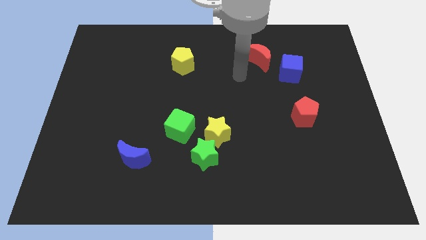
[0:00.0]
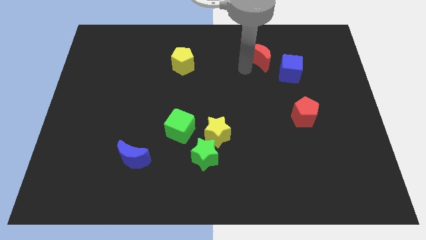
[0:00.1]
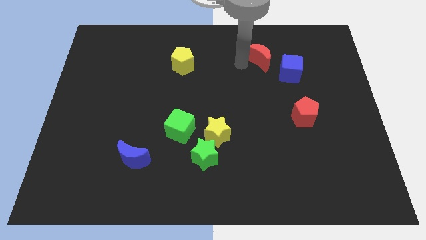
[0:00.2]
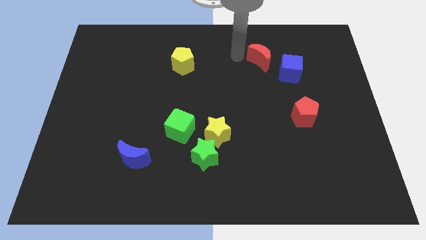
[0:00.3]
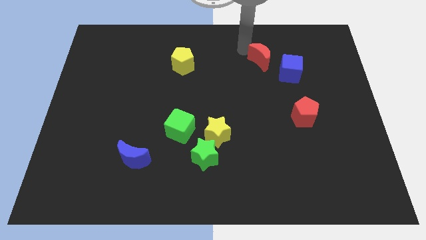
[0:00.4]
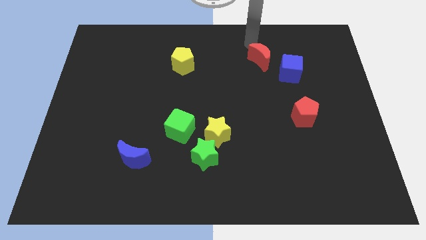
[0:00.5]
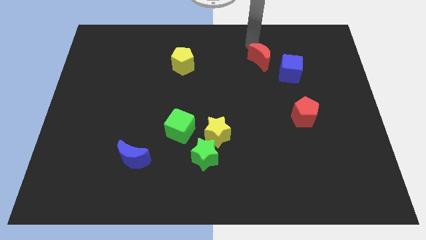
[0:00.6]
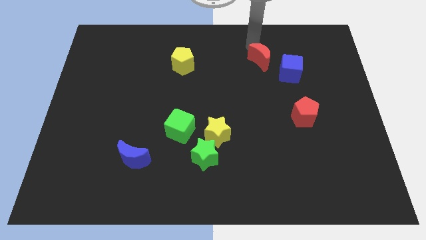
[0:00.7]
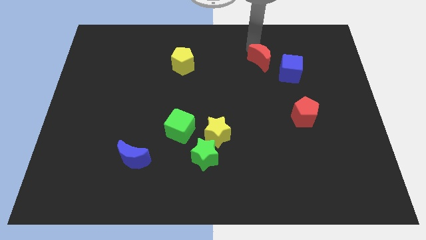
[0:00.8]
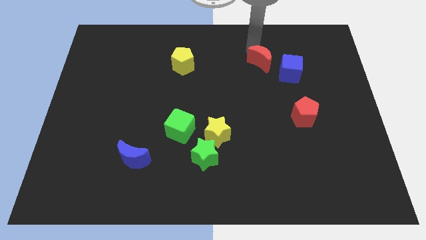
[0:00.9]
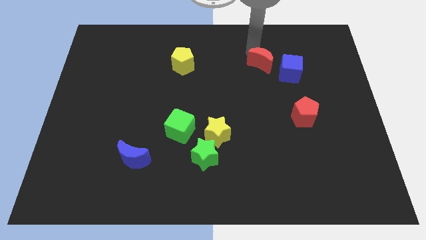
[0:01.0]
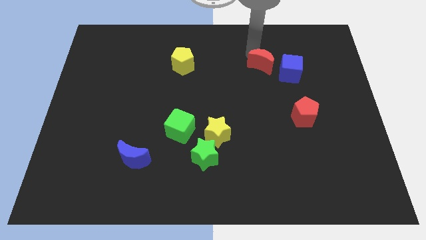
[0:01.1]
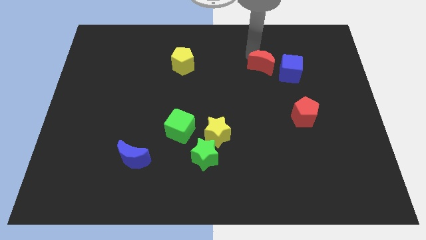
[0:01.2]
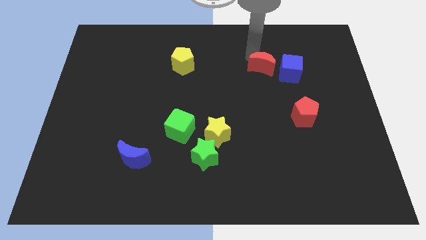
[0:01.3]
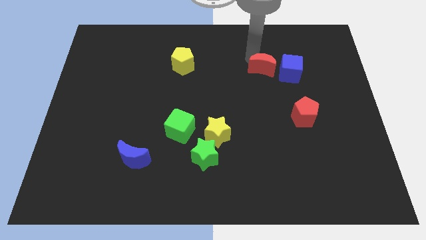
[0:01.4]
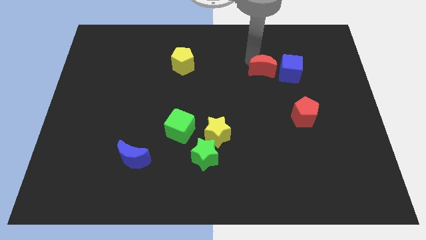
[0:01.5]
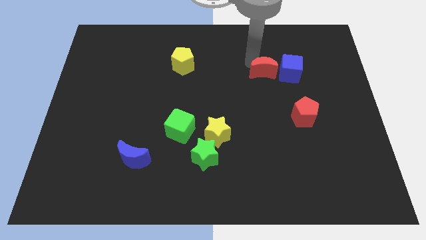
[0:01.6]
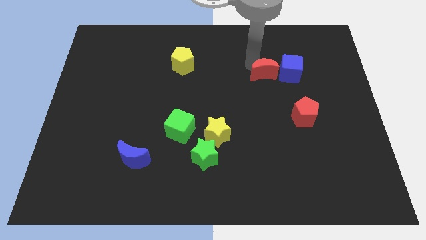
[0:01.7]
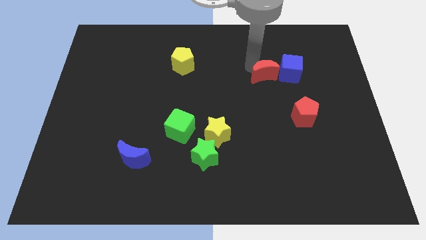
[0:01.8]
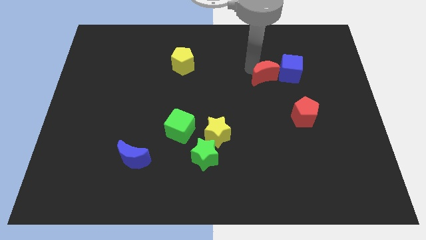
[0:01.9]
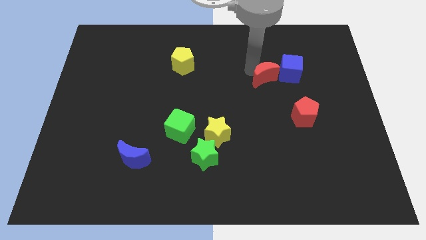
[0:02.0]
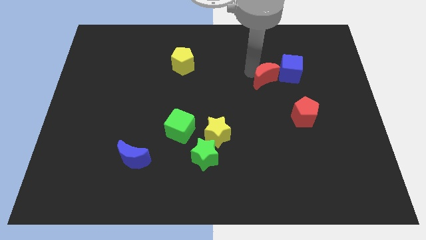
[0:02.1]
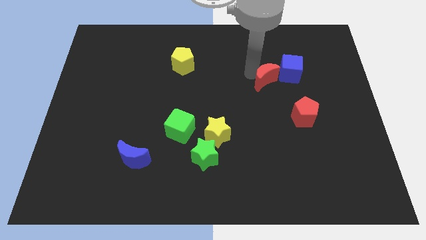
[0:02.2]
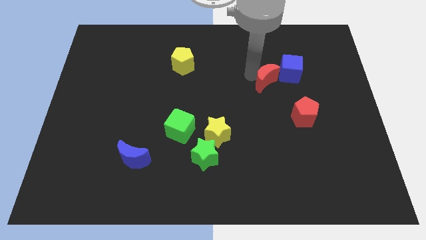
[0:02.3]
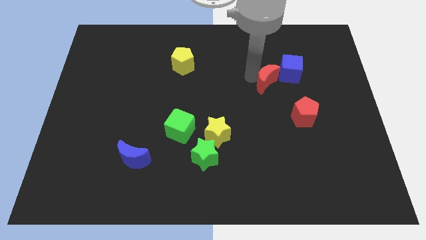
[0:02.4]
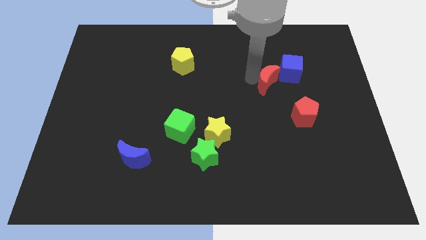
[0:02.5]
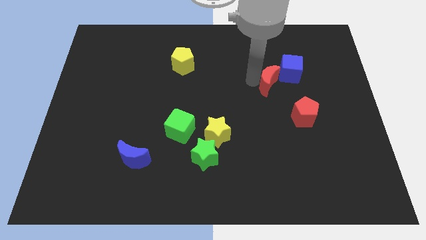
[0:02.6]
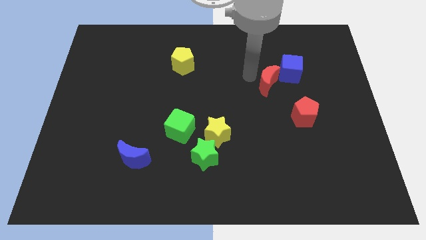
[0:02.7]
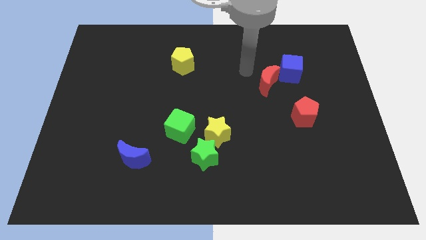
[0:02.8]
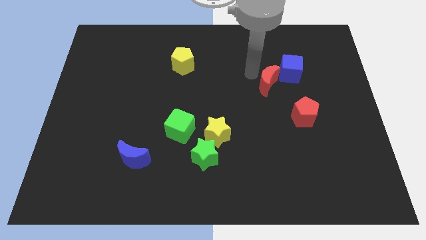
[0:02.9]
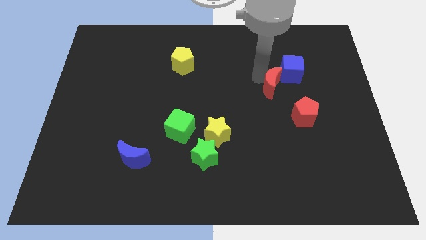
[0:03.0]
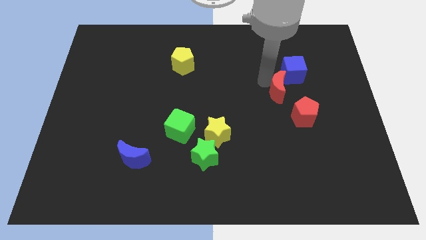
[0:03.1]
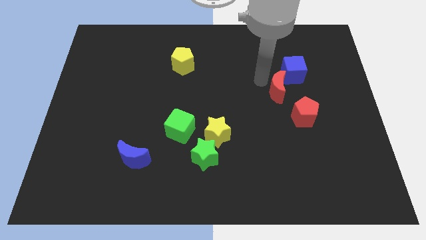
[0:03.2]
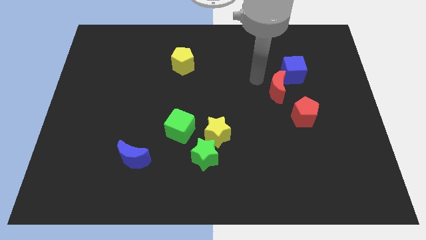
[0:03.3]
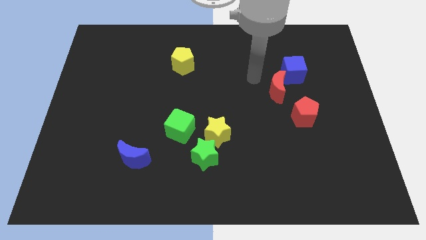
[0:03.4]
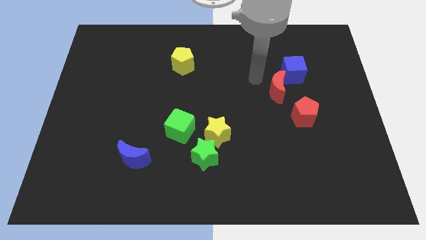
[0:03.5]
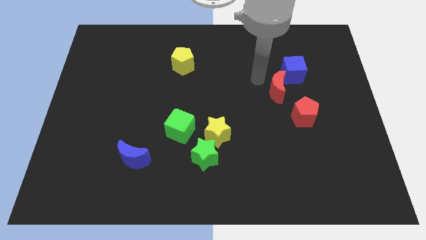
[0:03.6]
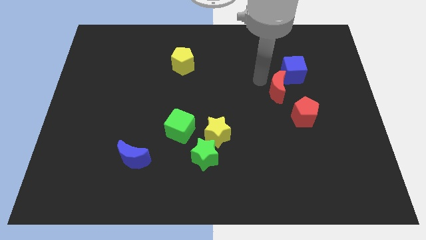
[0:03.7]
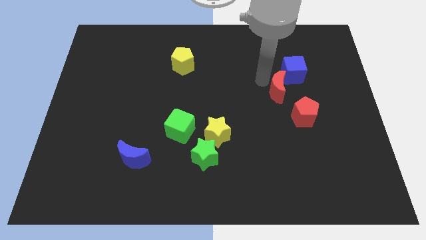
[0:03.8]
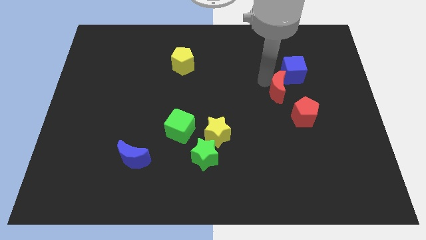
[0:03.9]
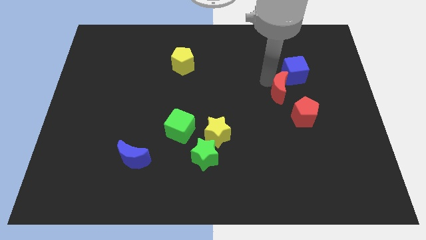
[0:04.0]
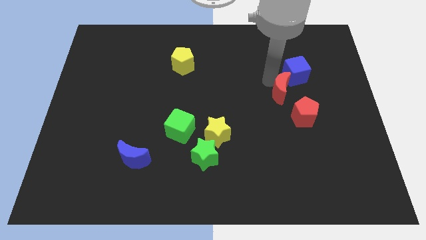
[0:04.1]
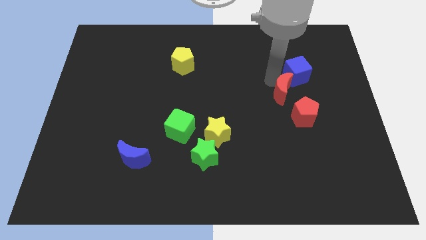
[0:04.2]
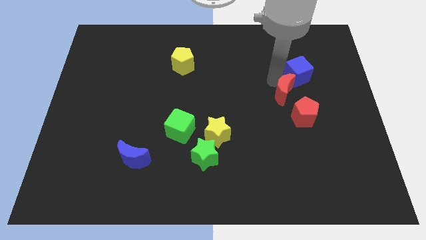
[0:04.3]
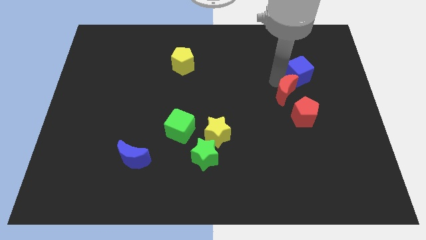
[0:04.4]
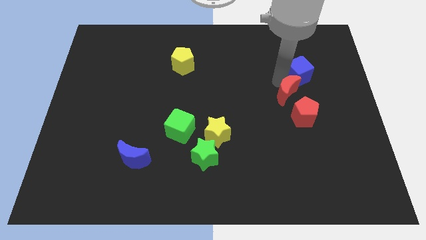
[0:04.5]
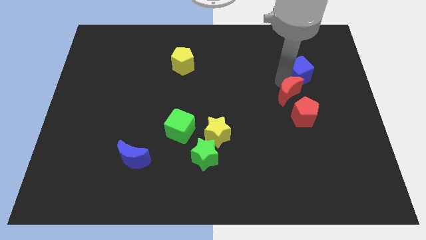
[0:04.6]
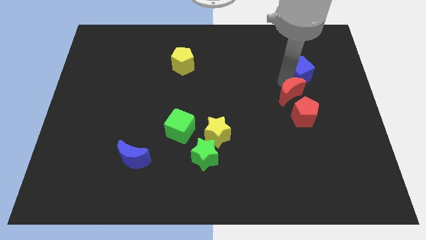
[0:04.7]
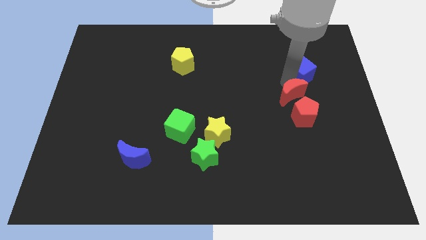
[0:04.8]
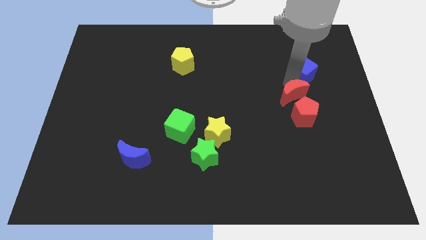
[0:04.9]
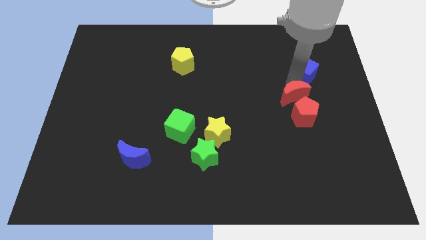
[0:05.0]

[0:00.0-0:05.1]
slide the red moon close to the red pentagon

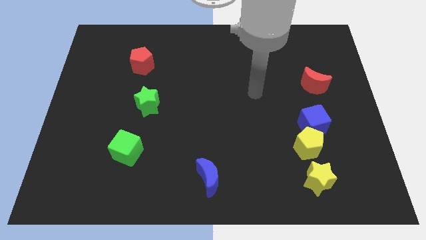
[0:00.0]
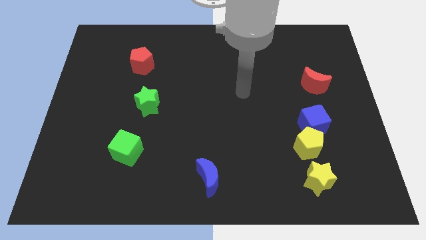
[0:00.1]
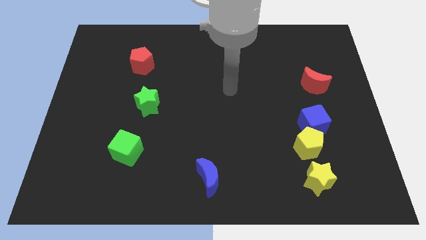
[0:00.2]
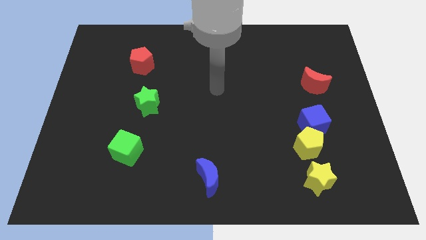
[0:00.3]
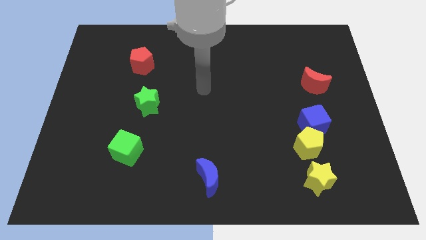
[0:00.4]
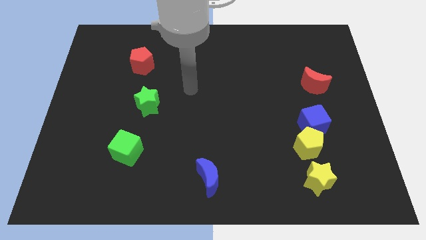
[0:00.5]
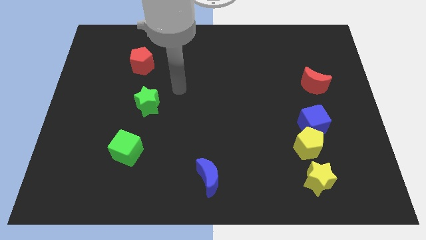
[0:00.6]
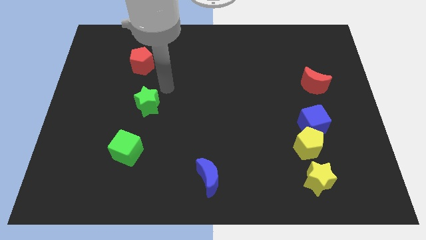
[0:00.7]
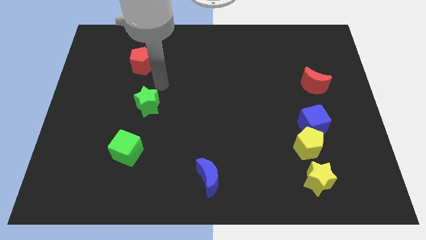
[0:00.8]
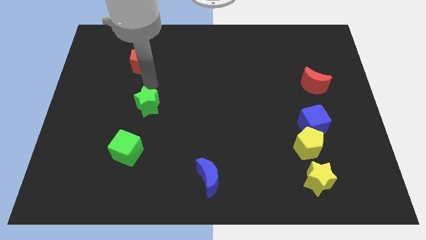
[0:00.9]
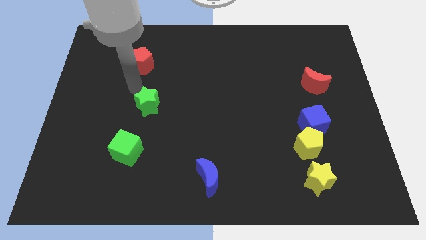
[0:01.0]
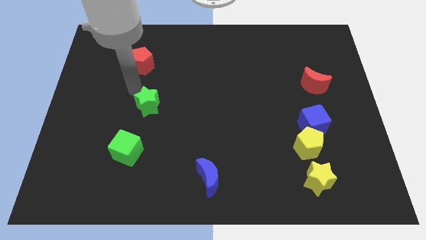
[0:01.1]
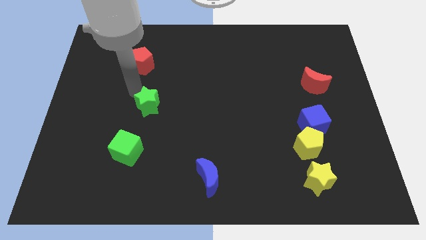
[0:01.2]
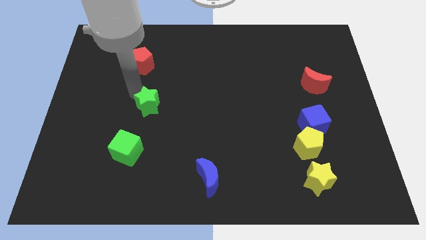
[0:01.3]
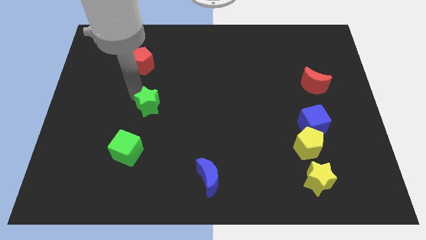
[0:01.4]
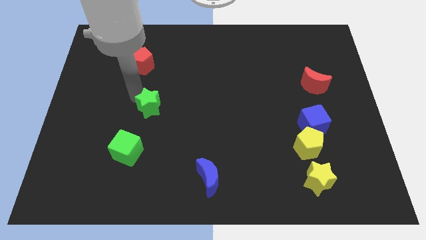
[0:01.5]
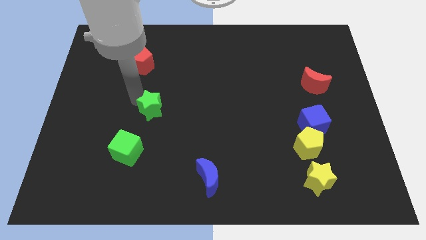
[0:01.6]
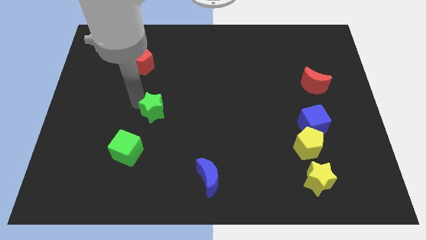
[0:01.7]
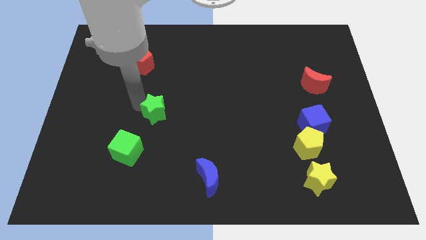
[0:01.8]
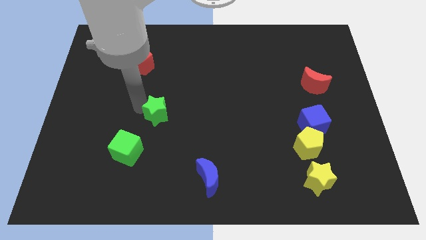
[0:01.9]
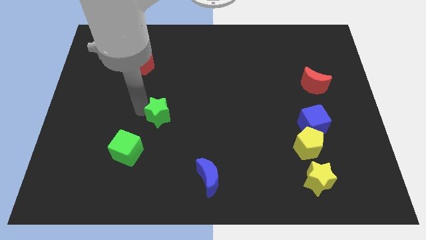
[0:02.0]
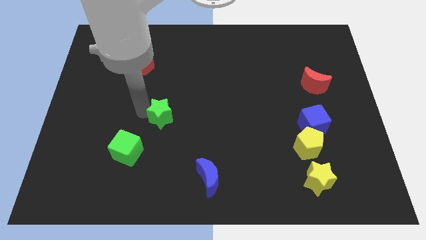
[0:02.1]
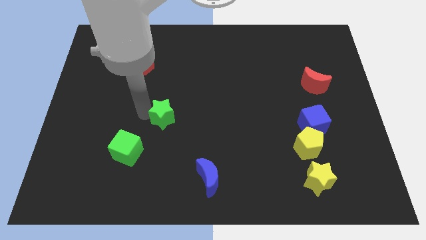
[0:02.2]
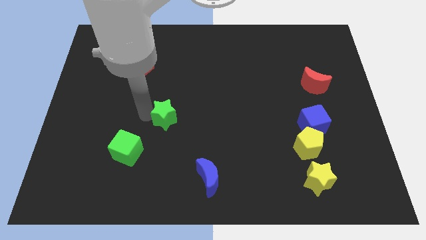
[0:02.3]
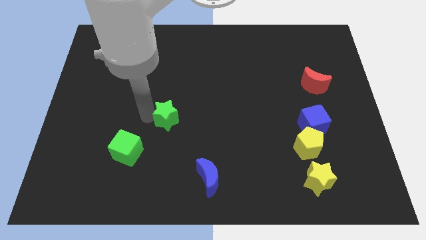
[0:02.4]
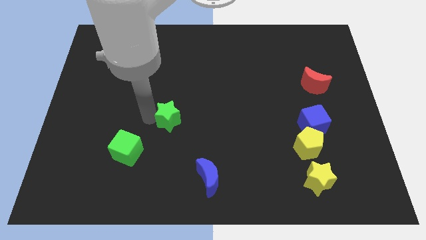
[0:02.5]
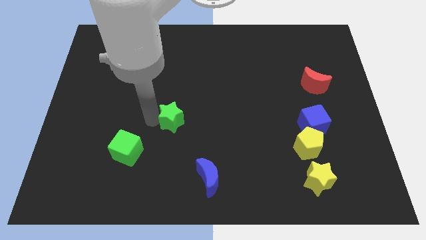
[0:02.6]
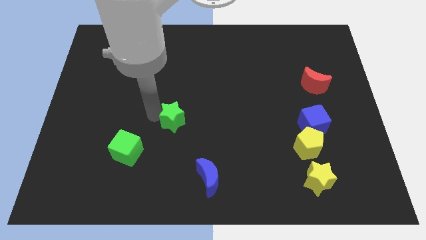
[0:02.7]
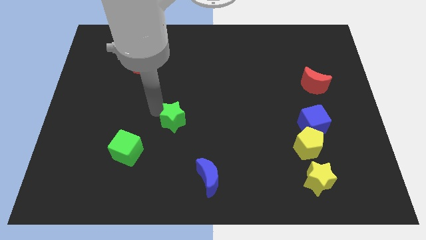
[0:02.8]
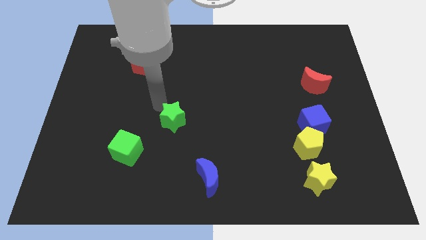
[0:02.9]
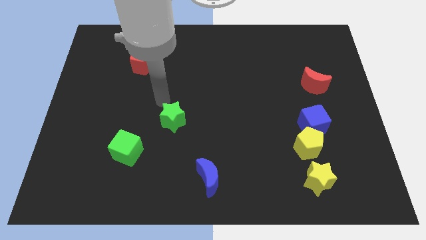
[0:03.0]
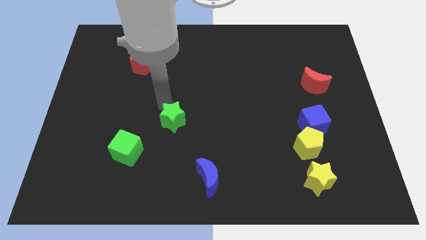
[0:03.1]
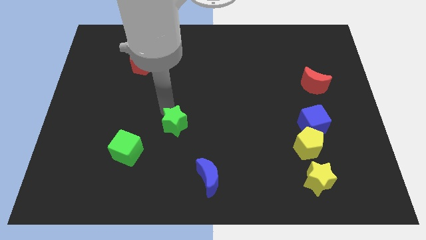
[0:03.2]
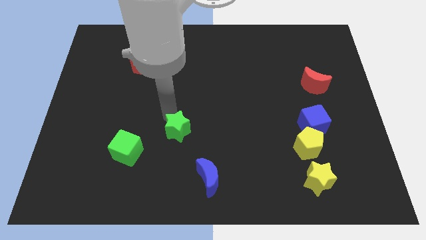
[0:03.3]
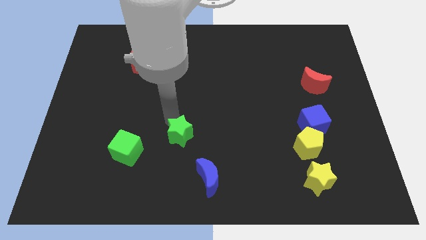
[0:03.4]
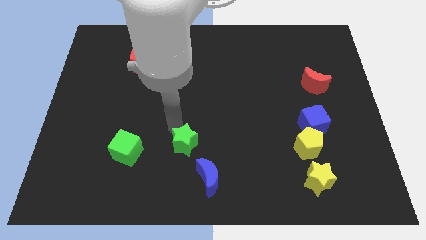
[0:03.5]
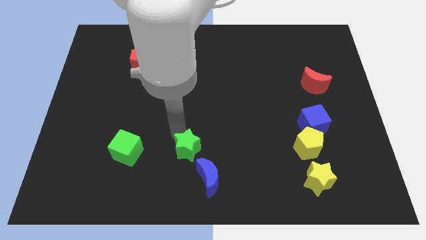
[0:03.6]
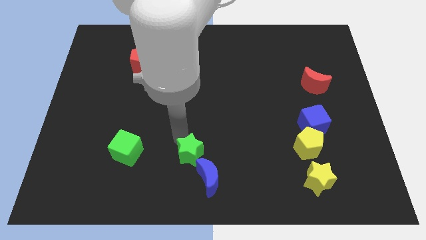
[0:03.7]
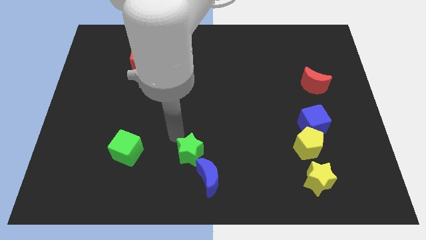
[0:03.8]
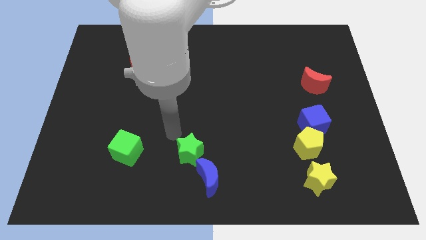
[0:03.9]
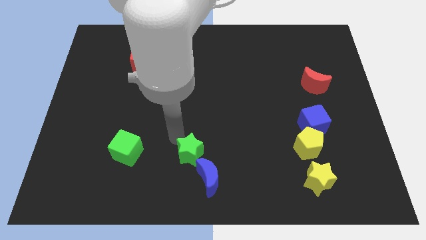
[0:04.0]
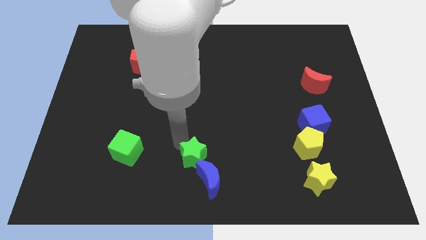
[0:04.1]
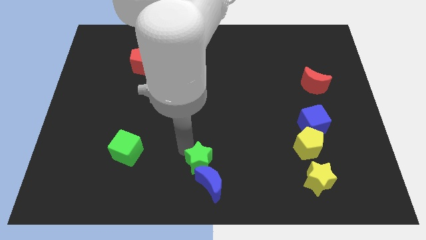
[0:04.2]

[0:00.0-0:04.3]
slide the green star next to the blue moon
